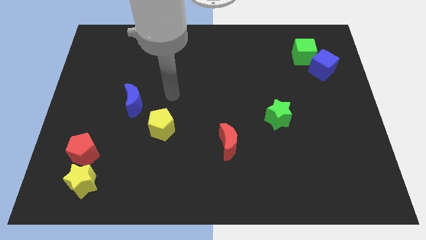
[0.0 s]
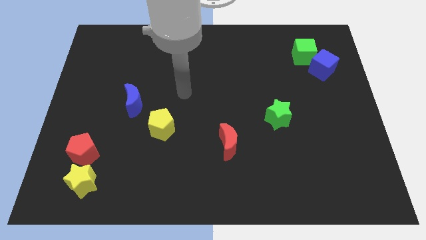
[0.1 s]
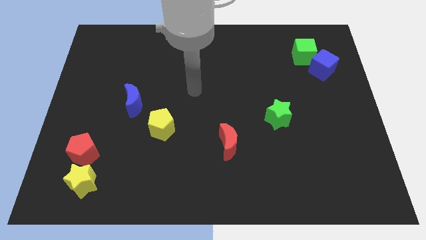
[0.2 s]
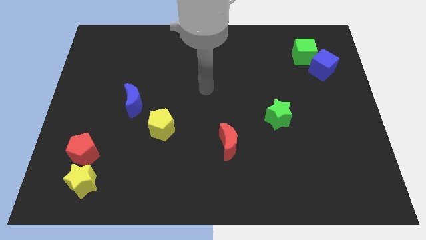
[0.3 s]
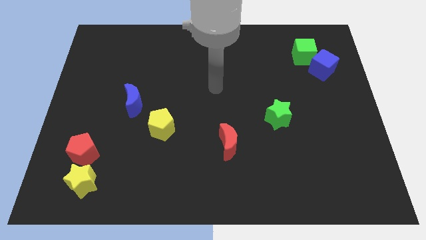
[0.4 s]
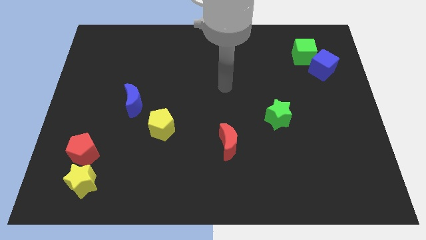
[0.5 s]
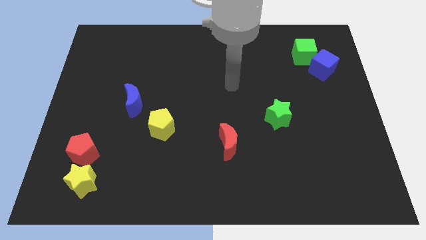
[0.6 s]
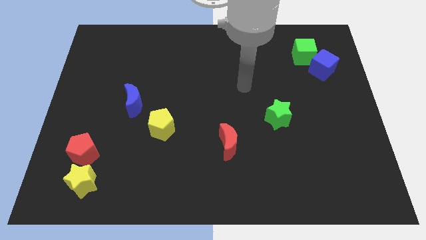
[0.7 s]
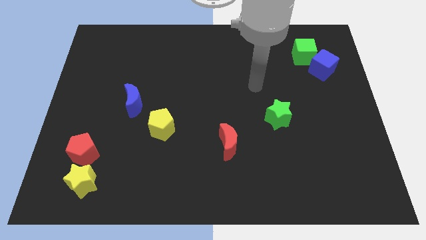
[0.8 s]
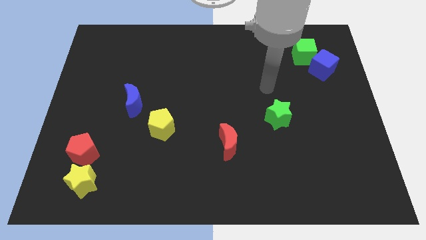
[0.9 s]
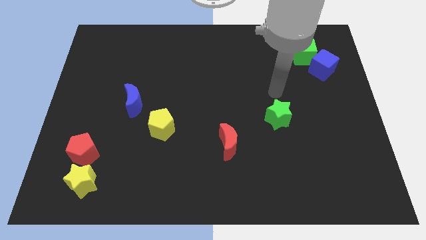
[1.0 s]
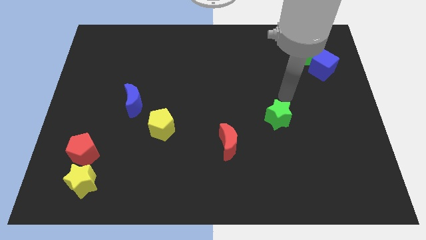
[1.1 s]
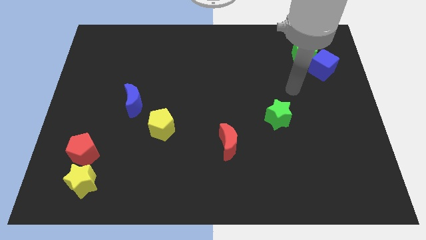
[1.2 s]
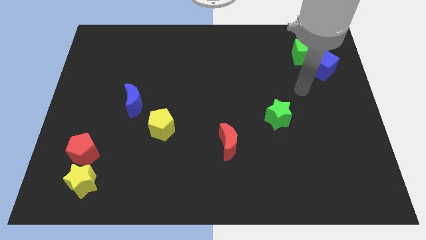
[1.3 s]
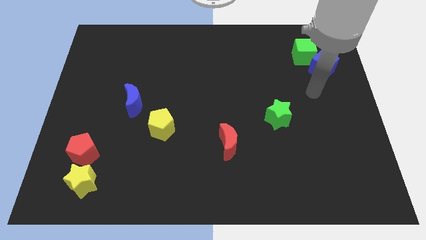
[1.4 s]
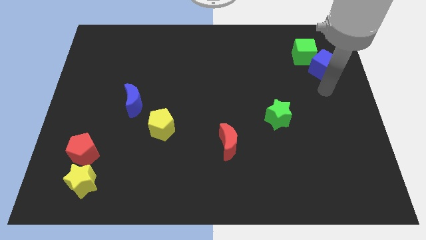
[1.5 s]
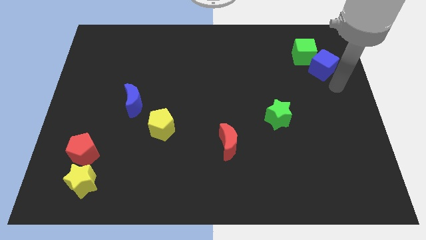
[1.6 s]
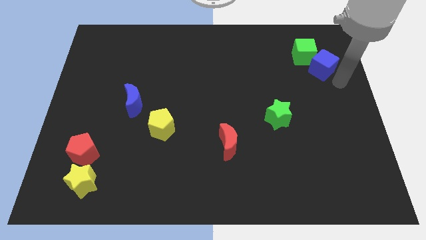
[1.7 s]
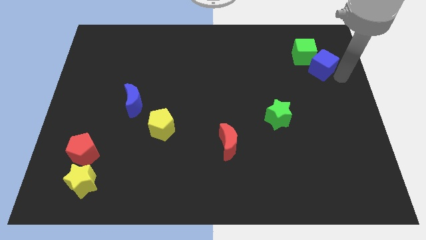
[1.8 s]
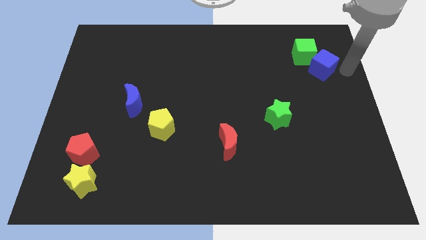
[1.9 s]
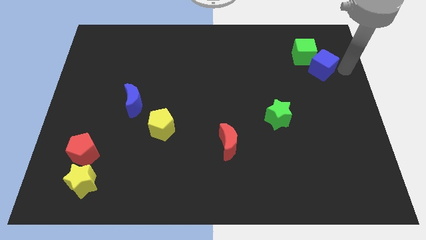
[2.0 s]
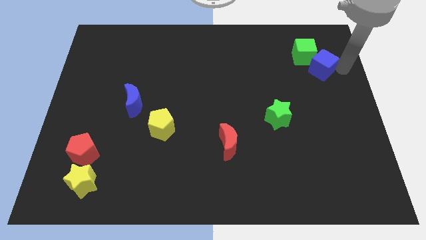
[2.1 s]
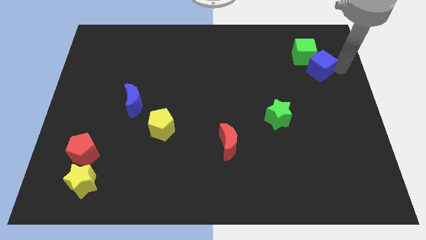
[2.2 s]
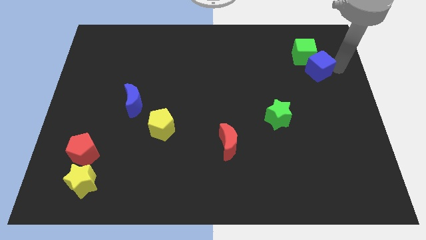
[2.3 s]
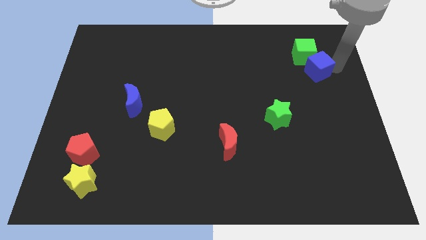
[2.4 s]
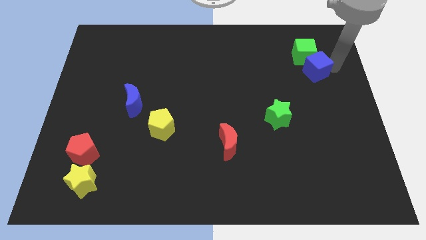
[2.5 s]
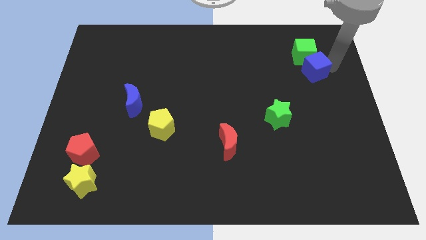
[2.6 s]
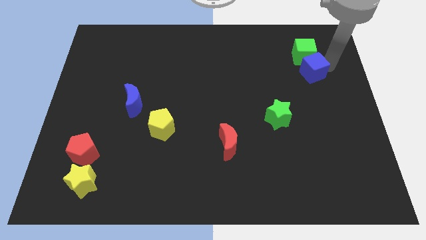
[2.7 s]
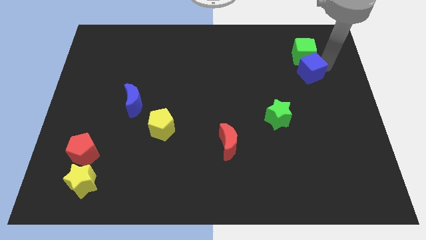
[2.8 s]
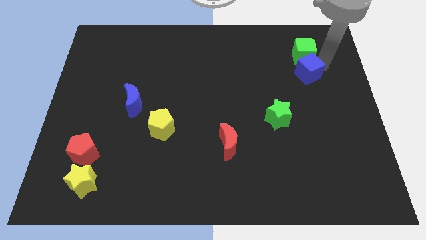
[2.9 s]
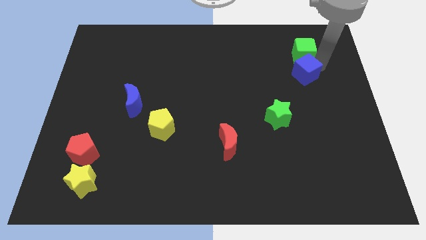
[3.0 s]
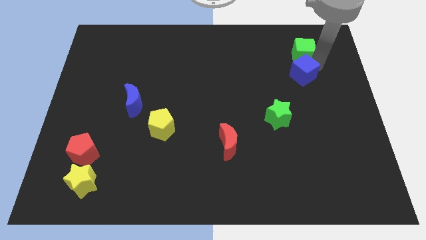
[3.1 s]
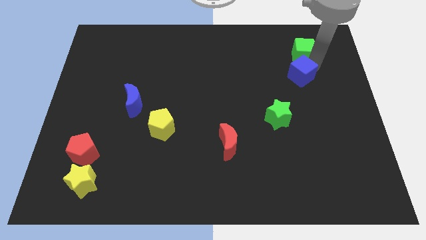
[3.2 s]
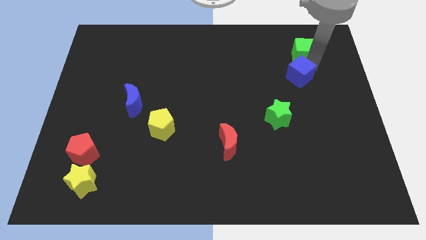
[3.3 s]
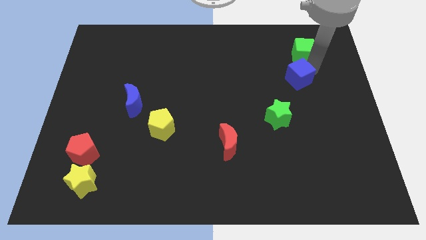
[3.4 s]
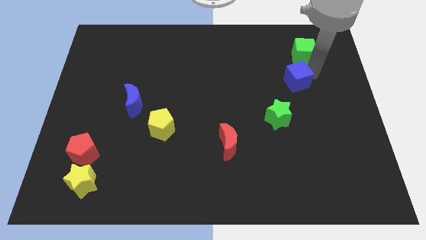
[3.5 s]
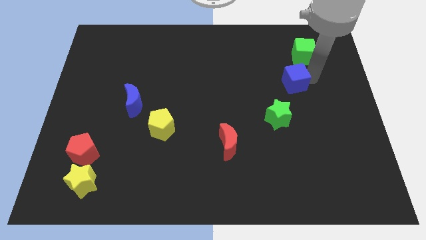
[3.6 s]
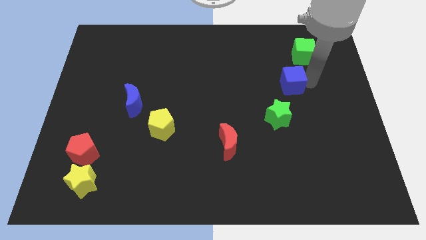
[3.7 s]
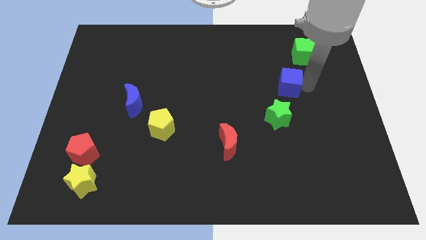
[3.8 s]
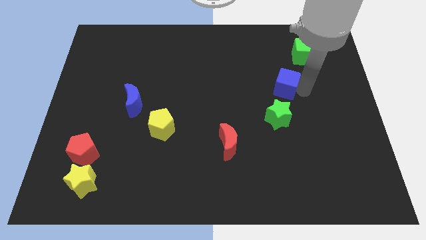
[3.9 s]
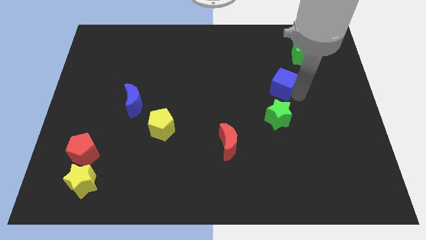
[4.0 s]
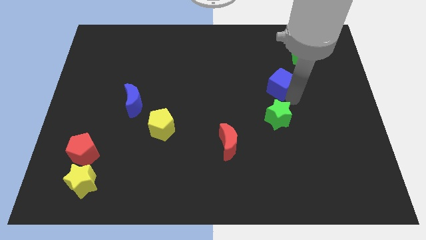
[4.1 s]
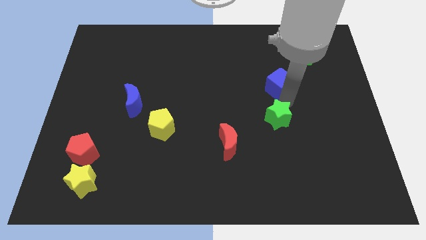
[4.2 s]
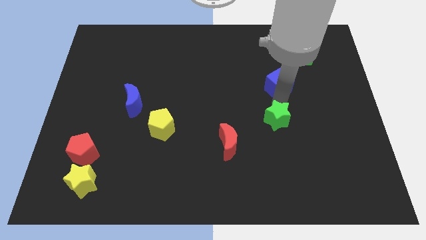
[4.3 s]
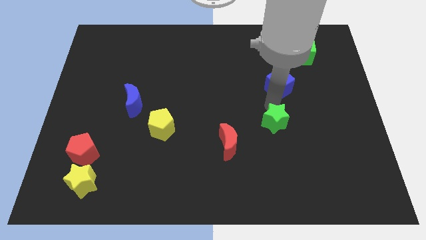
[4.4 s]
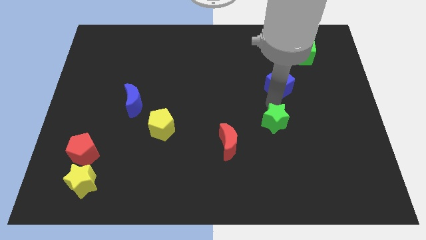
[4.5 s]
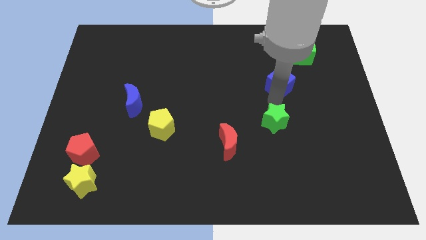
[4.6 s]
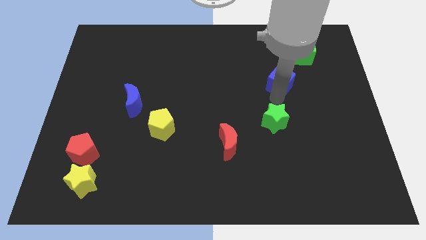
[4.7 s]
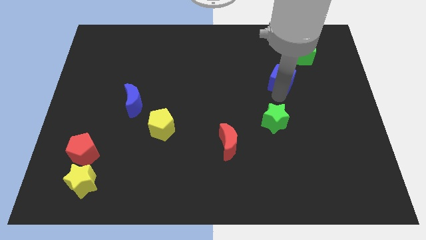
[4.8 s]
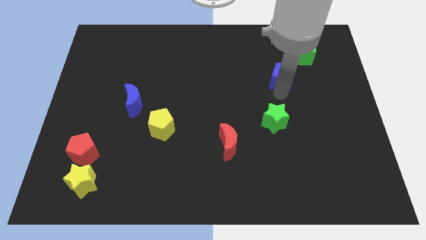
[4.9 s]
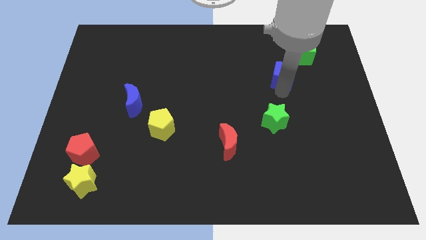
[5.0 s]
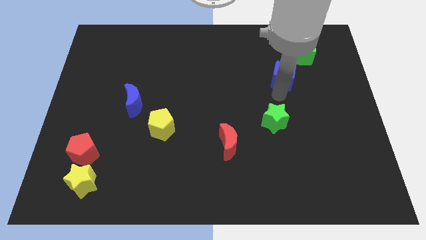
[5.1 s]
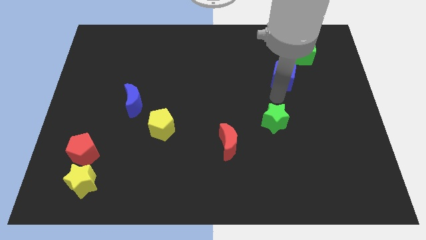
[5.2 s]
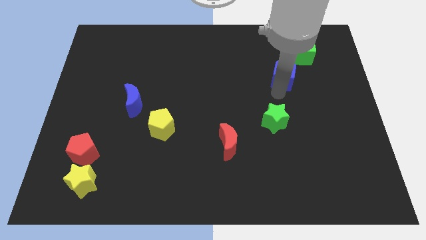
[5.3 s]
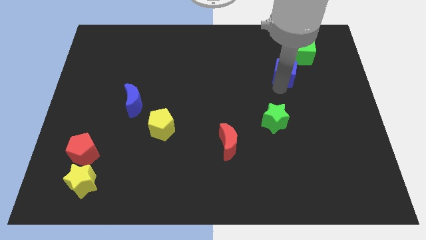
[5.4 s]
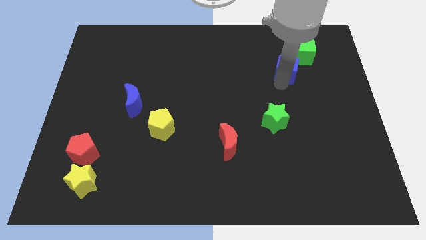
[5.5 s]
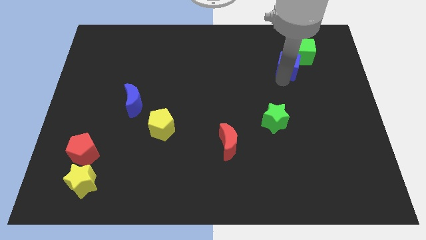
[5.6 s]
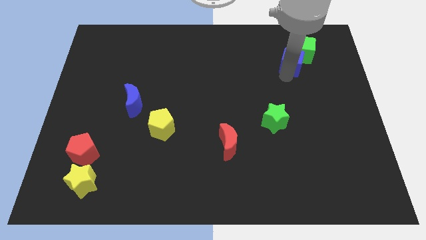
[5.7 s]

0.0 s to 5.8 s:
move the blue cube to the left side of the green cube
